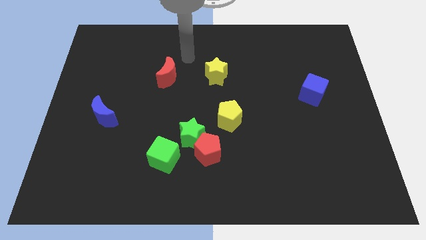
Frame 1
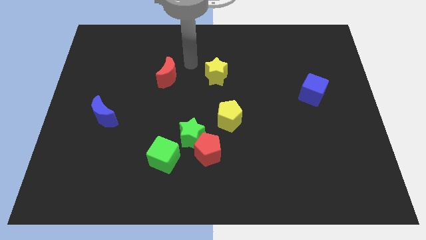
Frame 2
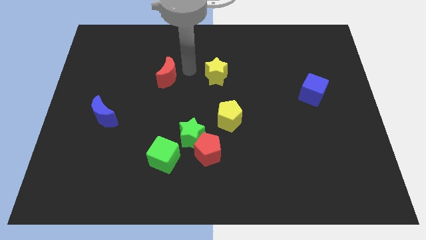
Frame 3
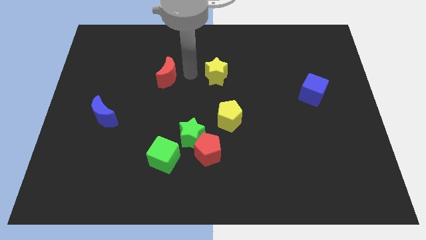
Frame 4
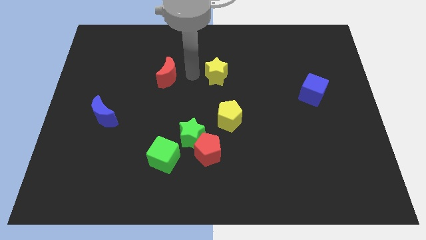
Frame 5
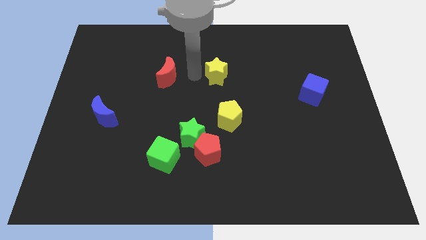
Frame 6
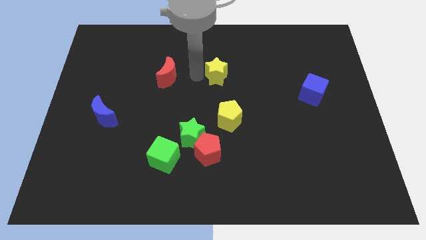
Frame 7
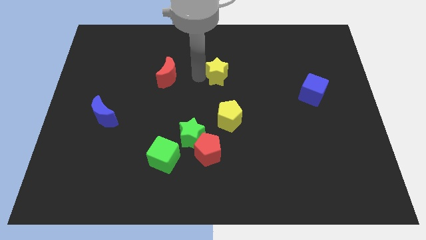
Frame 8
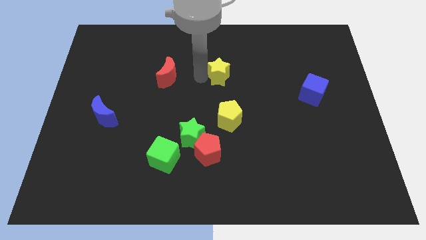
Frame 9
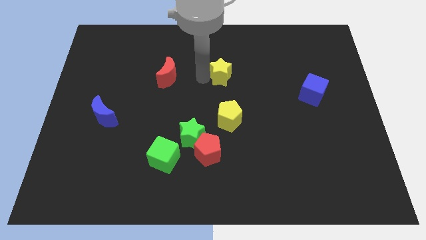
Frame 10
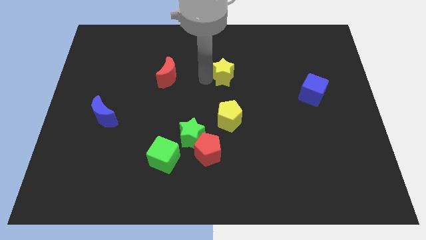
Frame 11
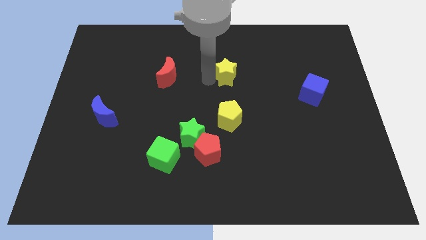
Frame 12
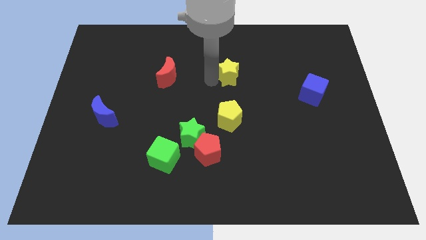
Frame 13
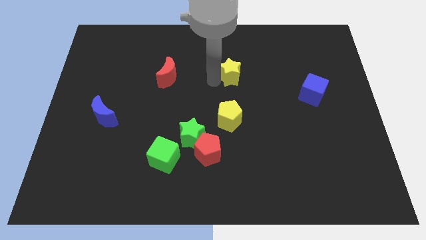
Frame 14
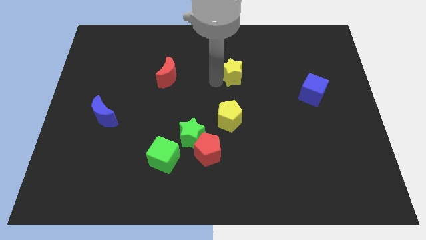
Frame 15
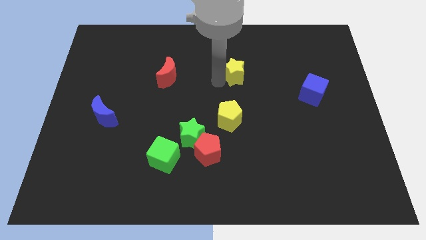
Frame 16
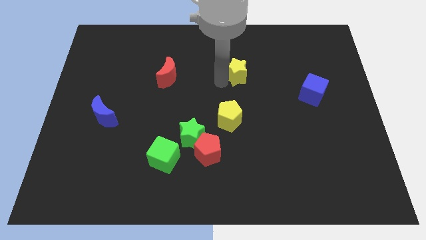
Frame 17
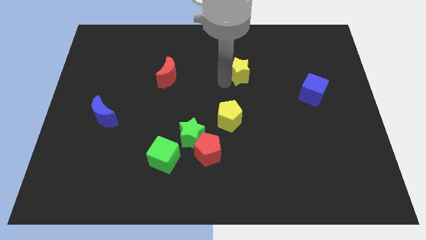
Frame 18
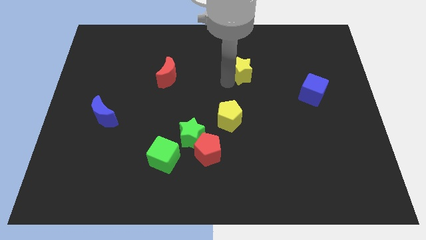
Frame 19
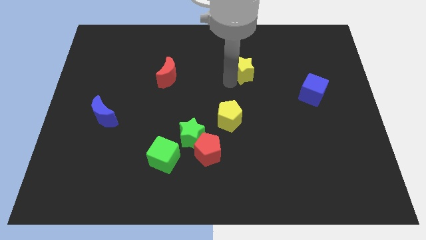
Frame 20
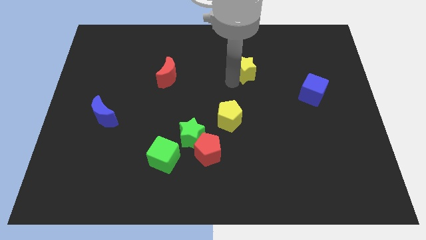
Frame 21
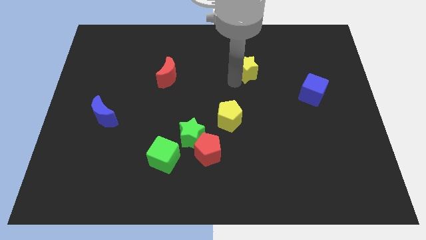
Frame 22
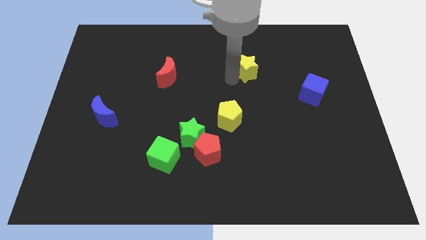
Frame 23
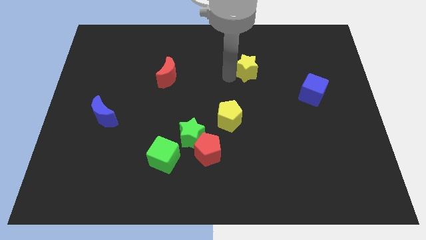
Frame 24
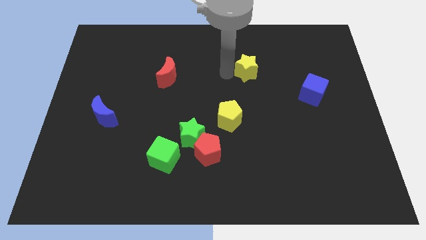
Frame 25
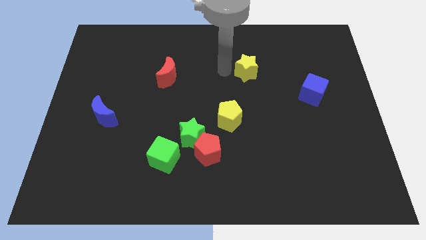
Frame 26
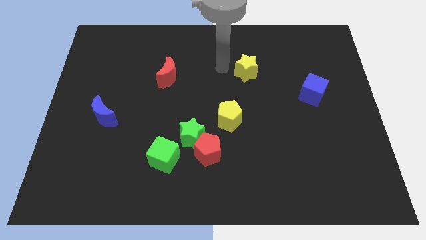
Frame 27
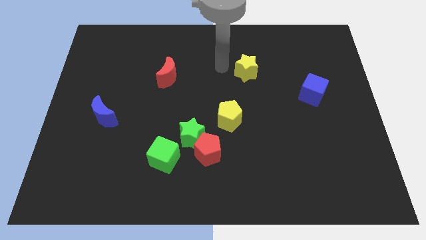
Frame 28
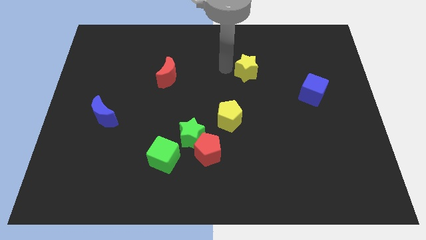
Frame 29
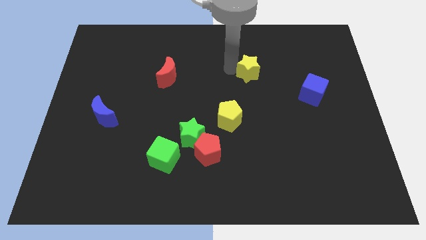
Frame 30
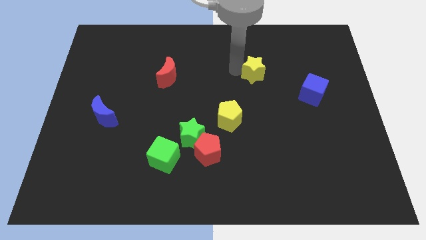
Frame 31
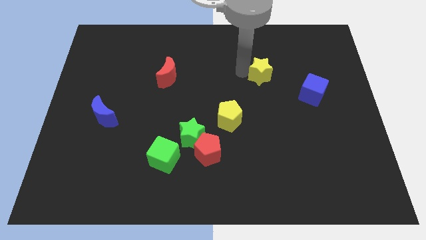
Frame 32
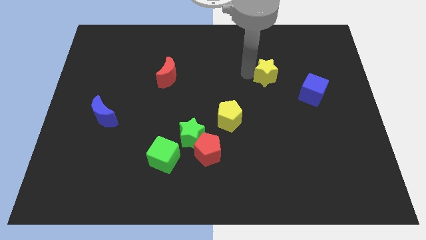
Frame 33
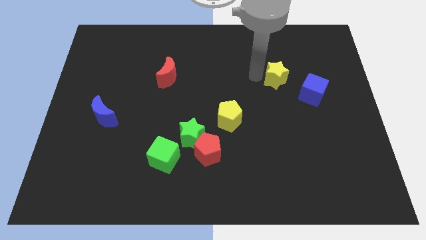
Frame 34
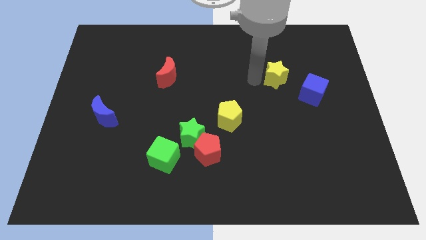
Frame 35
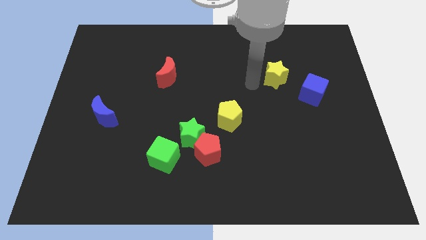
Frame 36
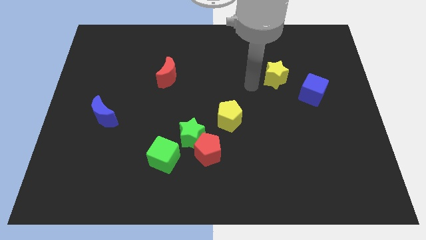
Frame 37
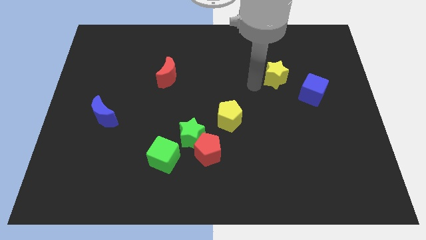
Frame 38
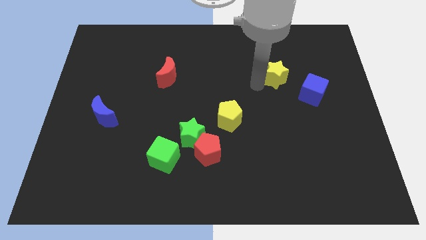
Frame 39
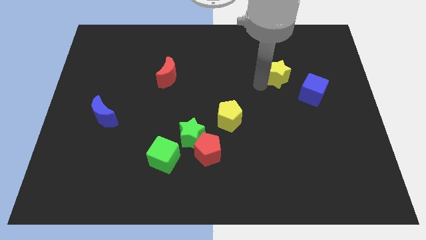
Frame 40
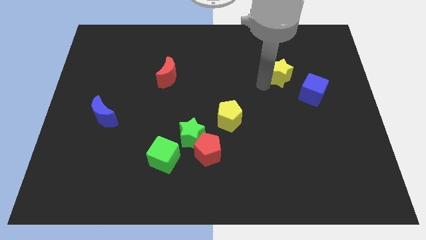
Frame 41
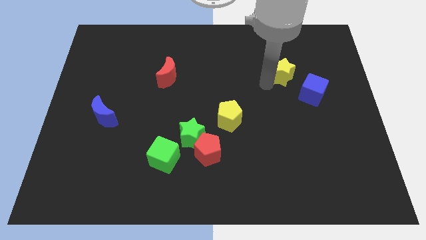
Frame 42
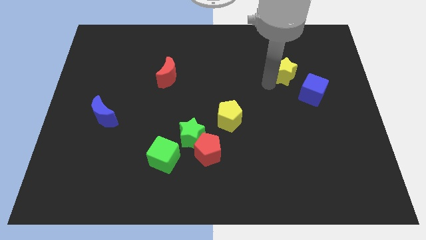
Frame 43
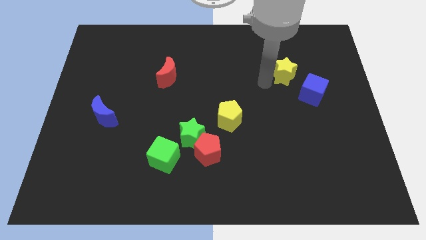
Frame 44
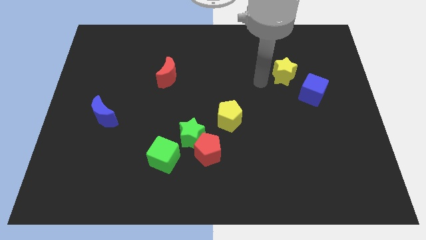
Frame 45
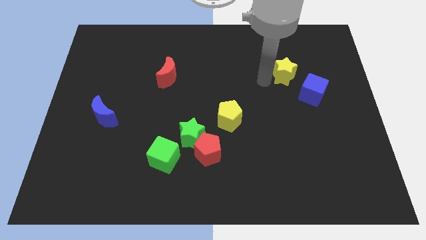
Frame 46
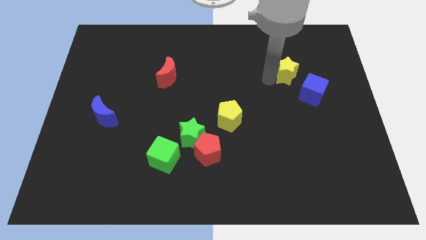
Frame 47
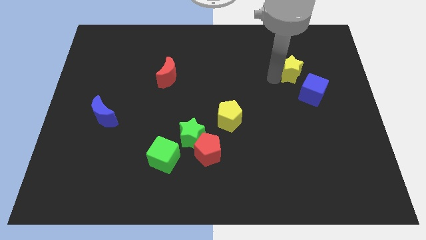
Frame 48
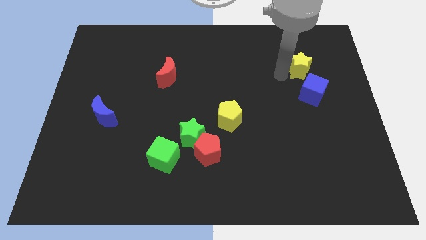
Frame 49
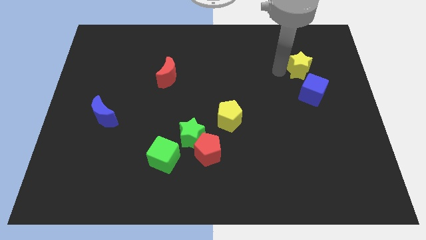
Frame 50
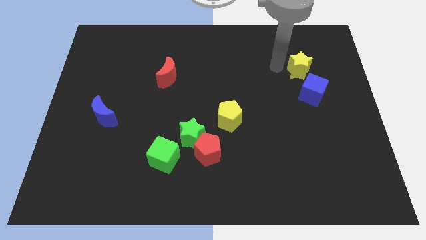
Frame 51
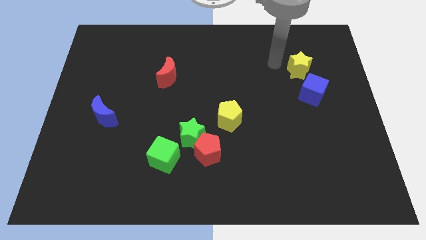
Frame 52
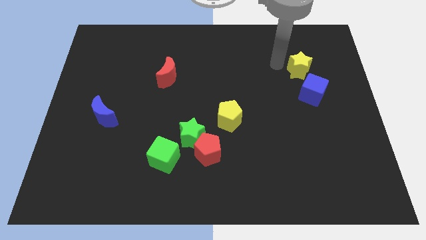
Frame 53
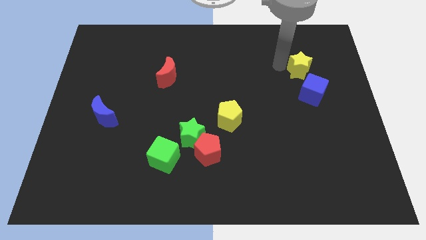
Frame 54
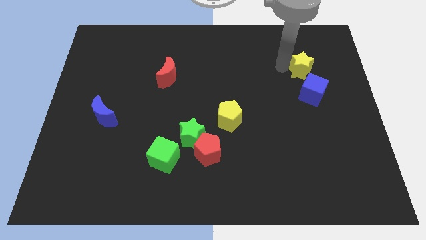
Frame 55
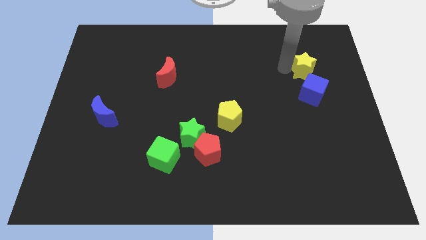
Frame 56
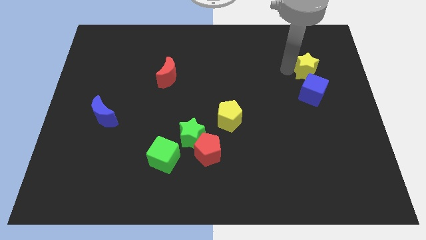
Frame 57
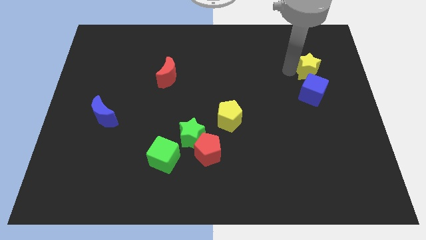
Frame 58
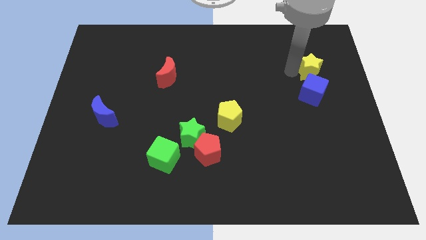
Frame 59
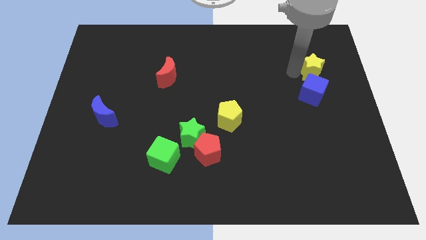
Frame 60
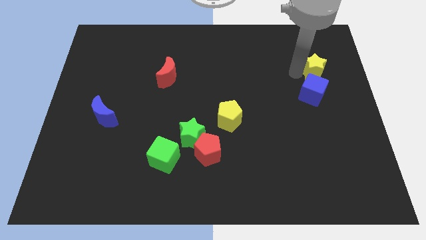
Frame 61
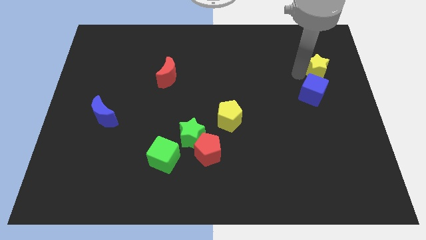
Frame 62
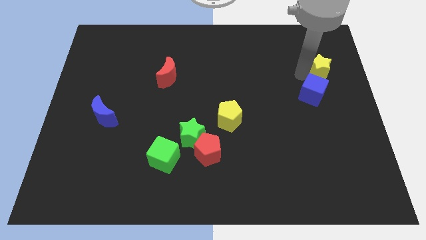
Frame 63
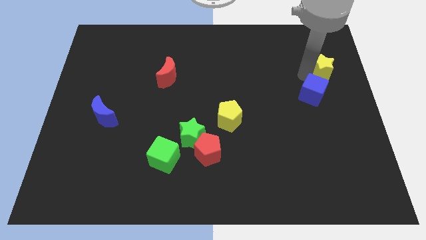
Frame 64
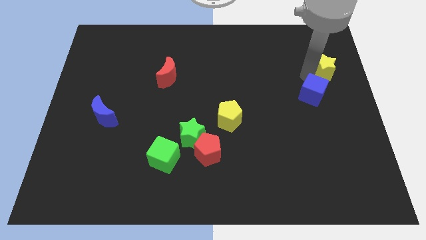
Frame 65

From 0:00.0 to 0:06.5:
push the yellow star to the right side
